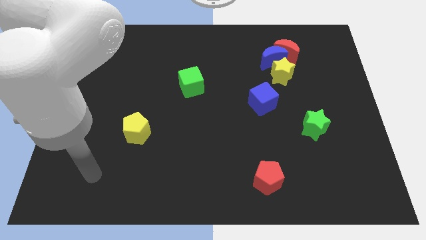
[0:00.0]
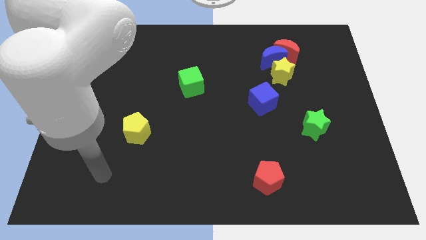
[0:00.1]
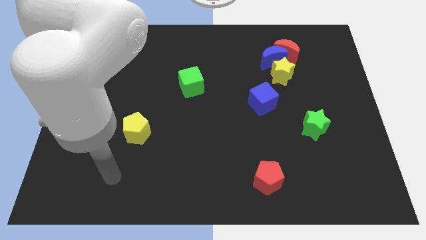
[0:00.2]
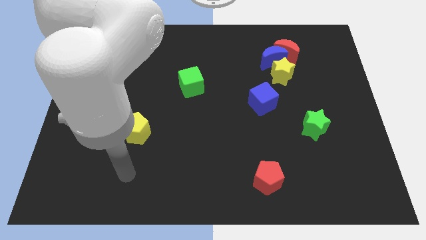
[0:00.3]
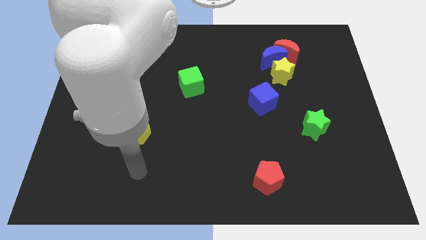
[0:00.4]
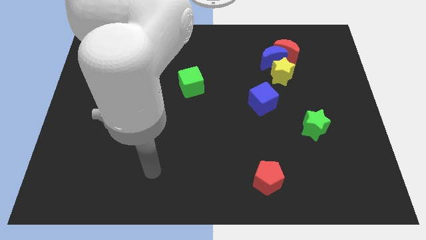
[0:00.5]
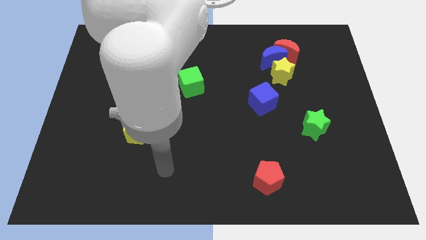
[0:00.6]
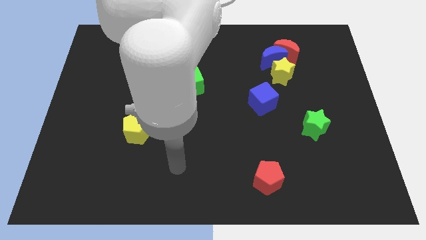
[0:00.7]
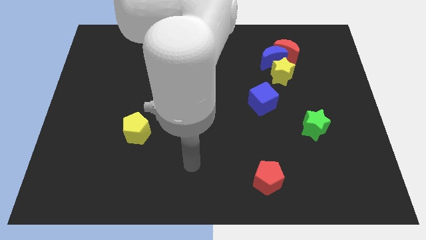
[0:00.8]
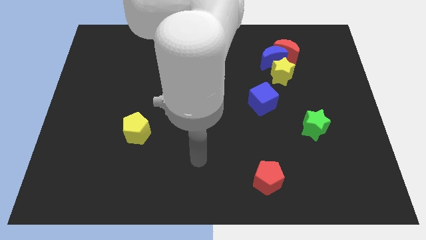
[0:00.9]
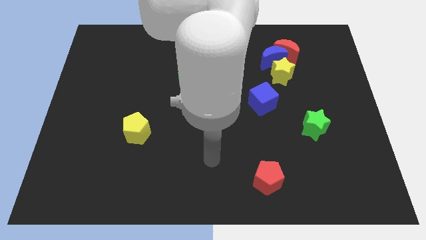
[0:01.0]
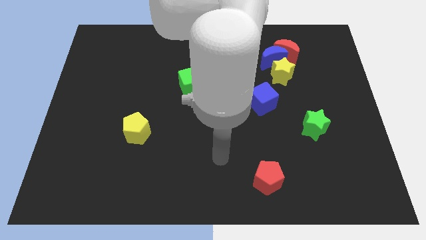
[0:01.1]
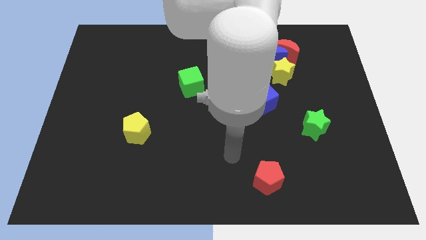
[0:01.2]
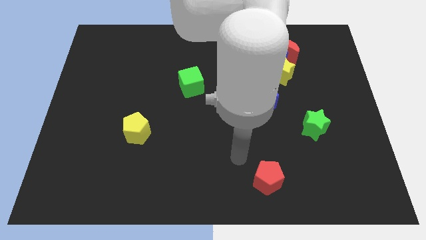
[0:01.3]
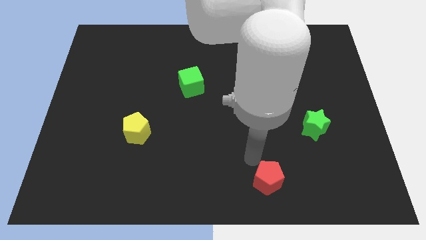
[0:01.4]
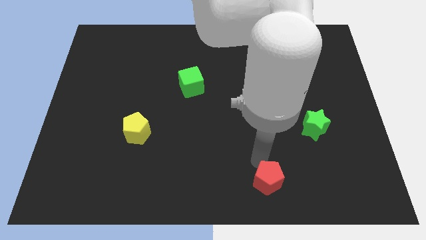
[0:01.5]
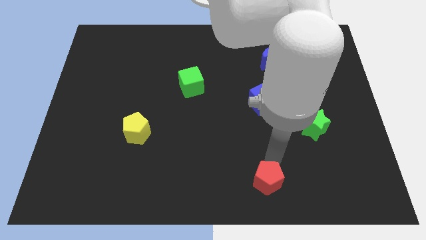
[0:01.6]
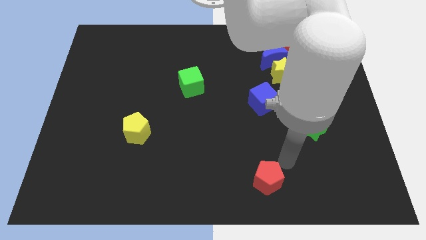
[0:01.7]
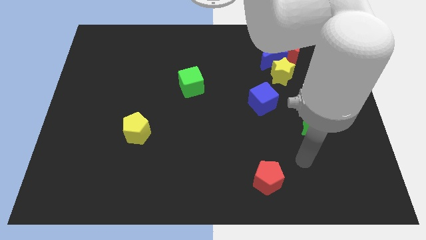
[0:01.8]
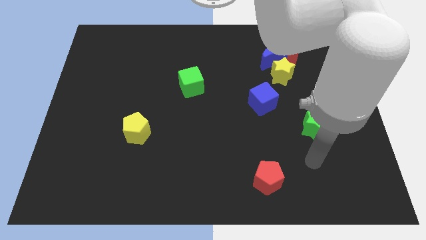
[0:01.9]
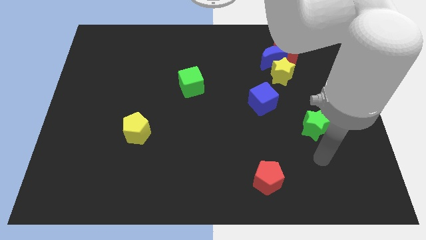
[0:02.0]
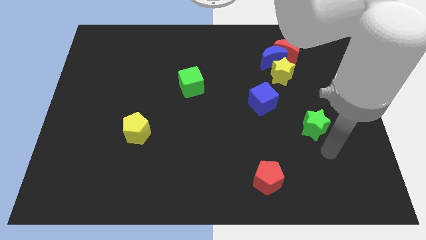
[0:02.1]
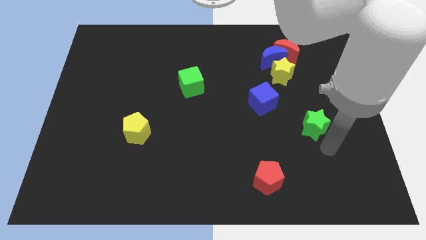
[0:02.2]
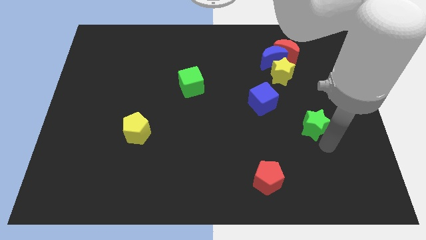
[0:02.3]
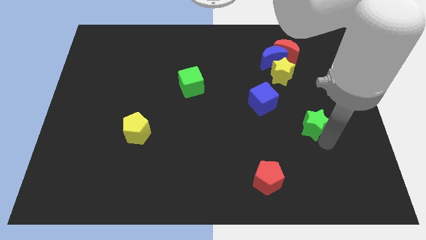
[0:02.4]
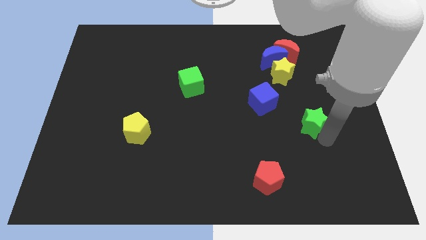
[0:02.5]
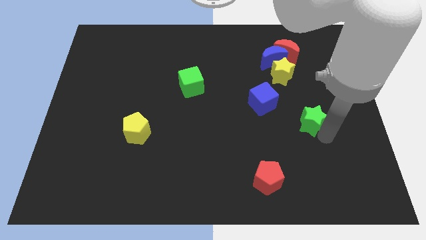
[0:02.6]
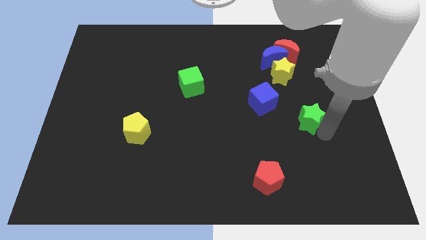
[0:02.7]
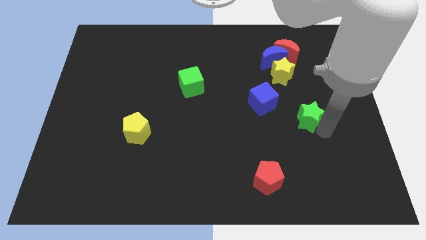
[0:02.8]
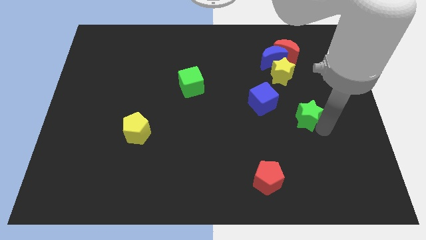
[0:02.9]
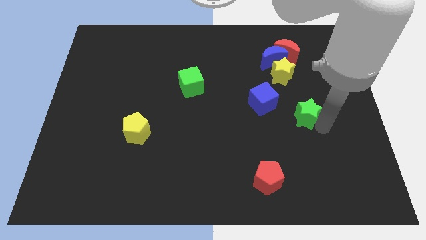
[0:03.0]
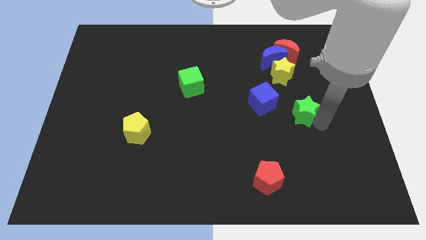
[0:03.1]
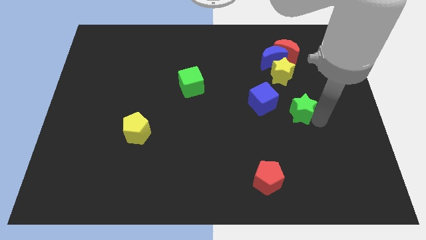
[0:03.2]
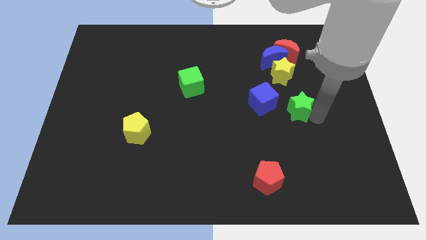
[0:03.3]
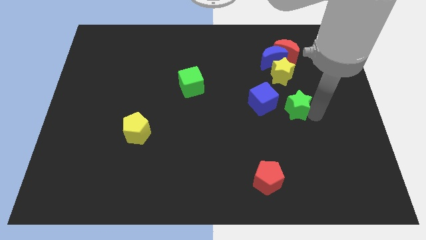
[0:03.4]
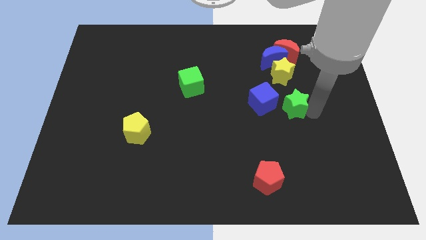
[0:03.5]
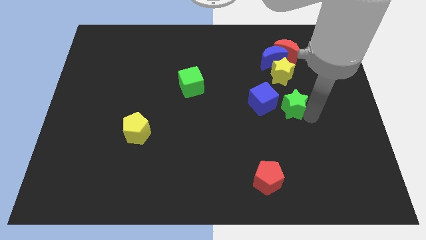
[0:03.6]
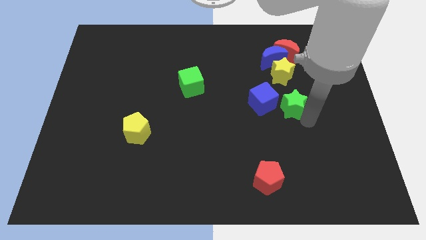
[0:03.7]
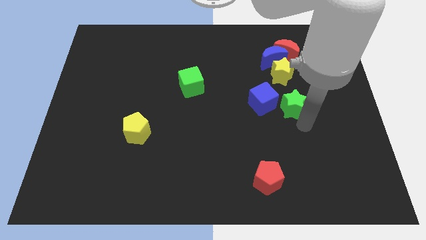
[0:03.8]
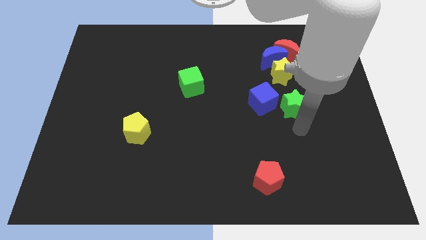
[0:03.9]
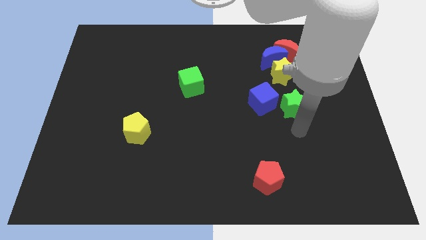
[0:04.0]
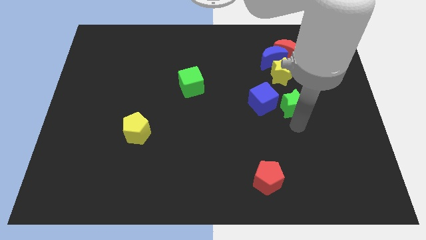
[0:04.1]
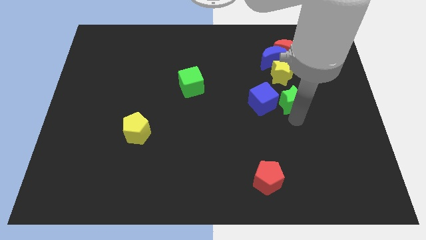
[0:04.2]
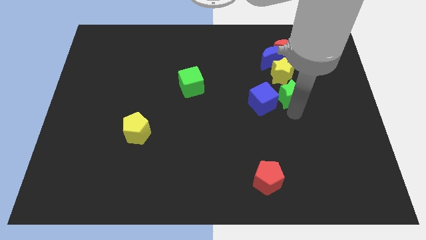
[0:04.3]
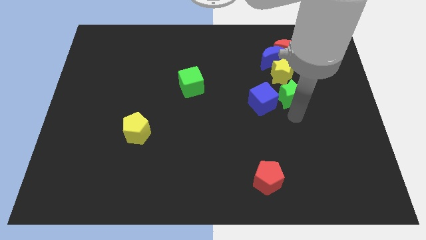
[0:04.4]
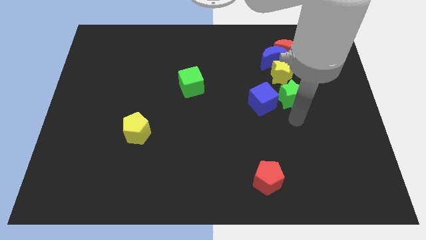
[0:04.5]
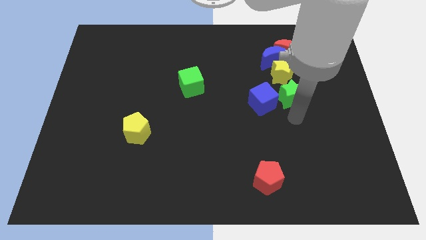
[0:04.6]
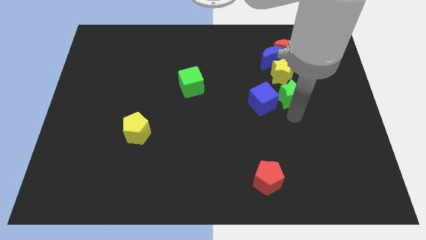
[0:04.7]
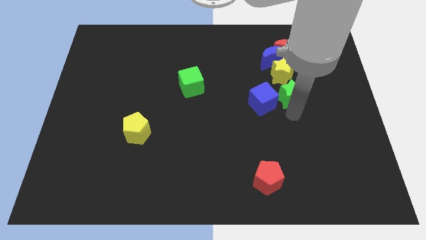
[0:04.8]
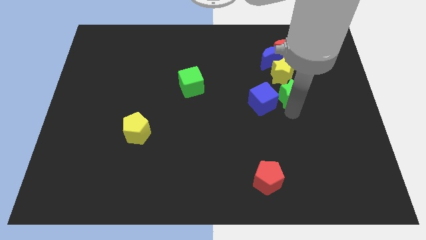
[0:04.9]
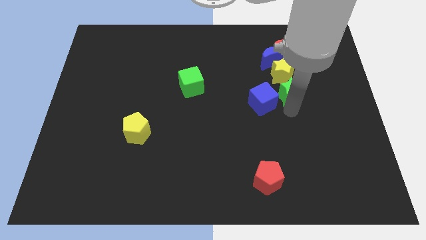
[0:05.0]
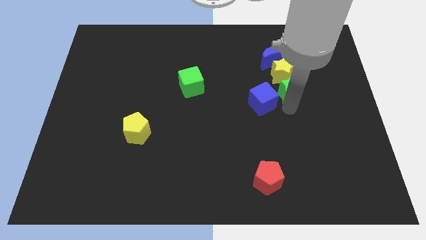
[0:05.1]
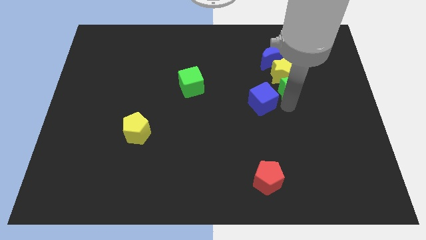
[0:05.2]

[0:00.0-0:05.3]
slide the green star next to the yellow star

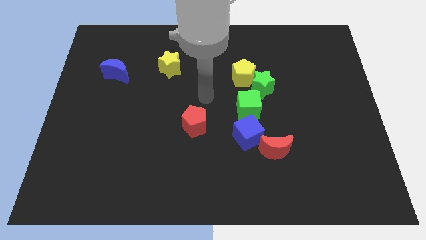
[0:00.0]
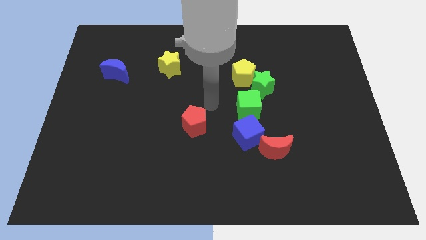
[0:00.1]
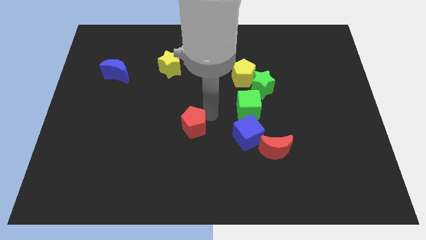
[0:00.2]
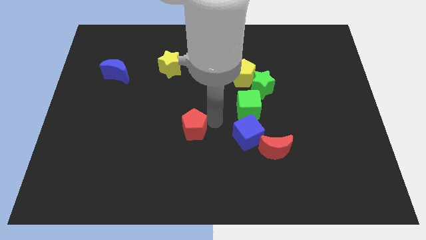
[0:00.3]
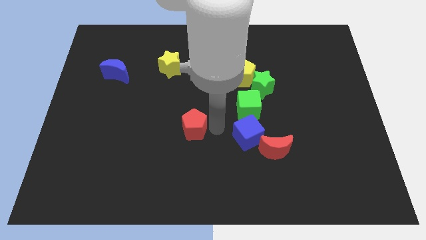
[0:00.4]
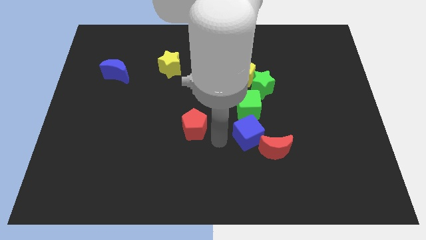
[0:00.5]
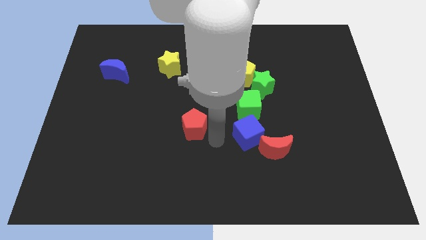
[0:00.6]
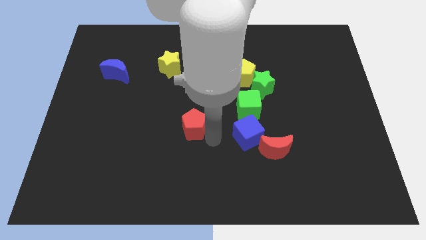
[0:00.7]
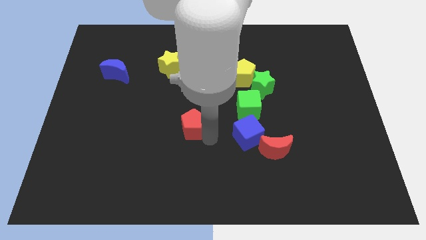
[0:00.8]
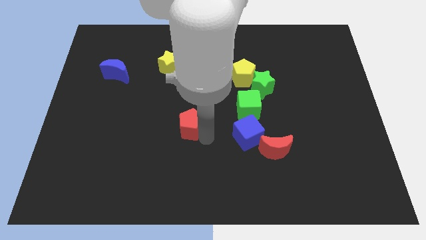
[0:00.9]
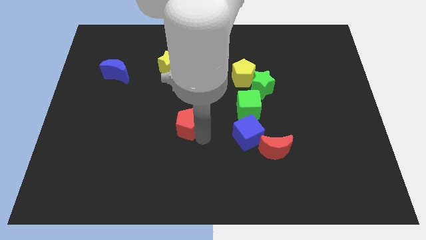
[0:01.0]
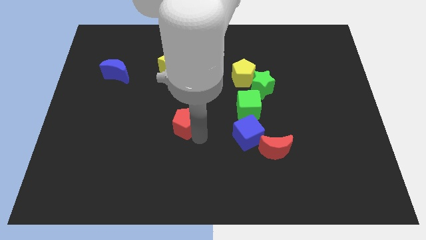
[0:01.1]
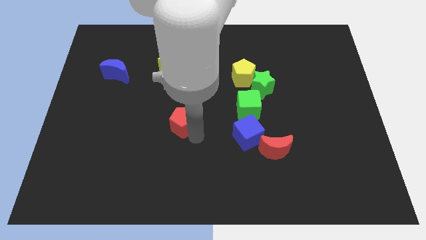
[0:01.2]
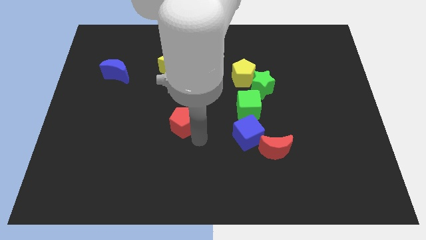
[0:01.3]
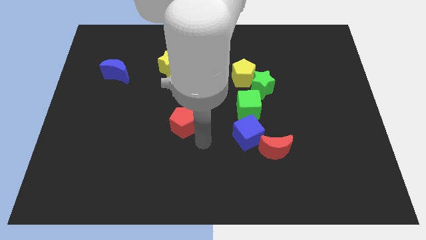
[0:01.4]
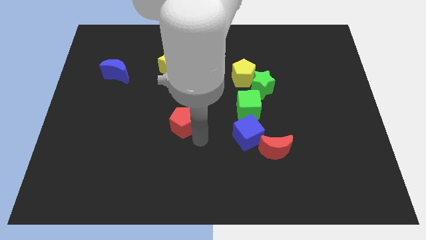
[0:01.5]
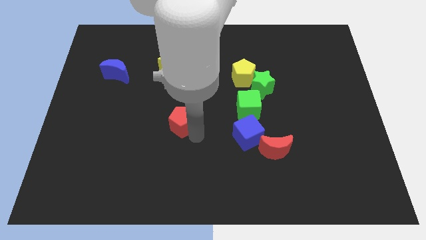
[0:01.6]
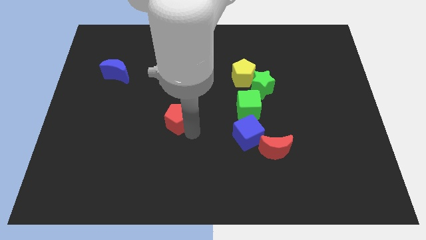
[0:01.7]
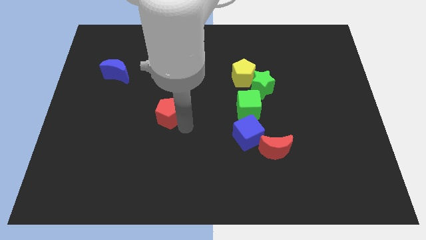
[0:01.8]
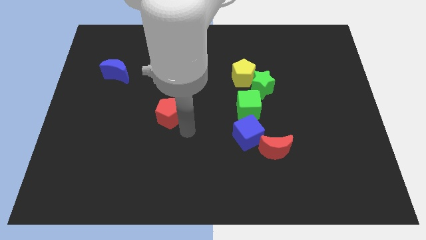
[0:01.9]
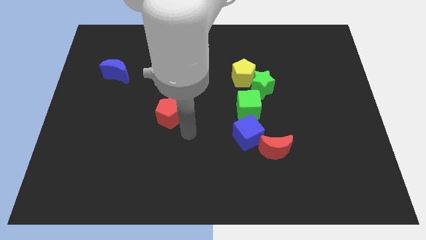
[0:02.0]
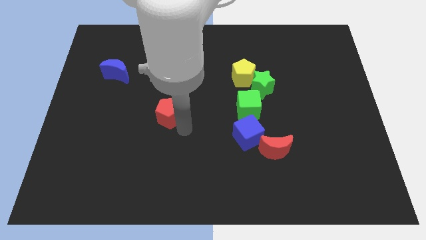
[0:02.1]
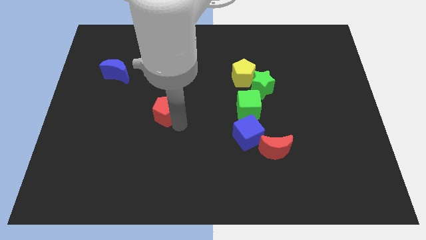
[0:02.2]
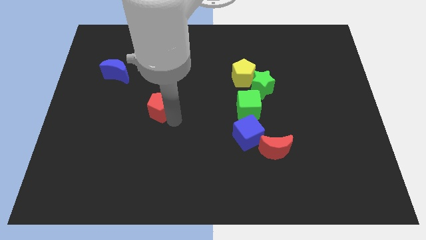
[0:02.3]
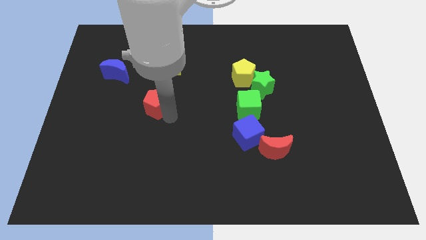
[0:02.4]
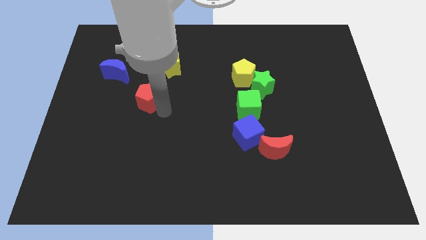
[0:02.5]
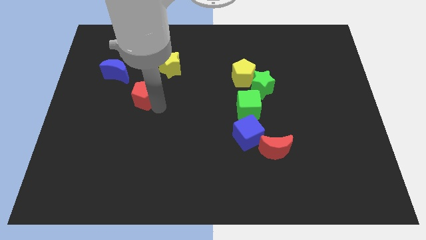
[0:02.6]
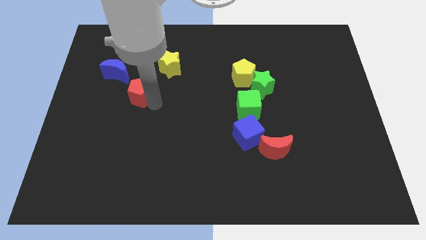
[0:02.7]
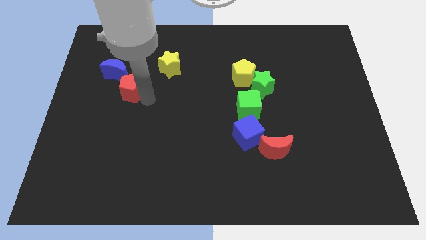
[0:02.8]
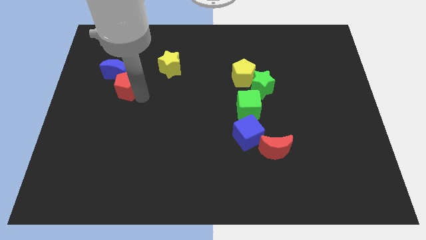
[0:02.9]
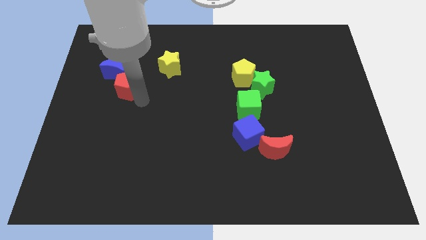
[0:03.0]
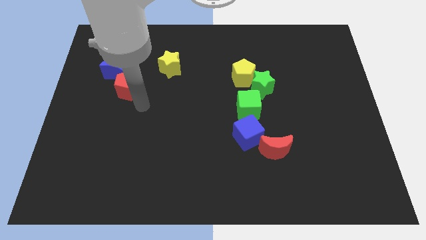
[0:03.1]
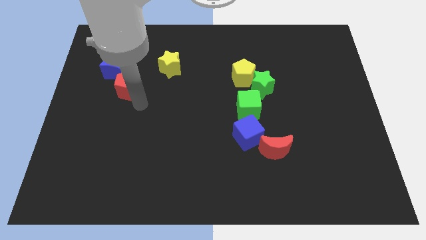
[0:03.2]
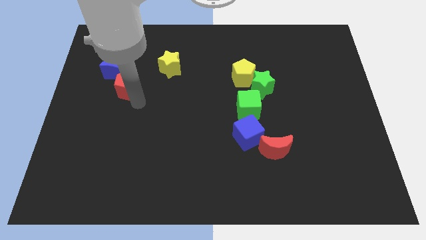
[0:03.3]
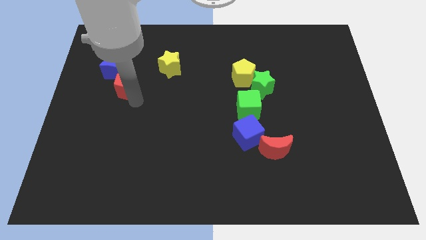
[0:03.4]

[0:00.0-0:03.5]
move the red pentagon to the blue moon
